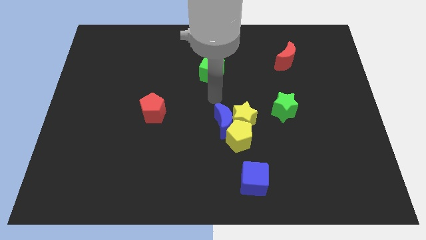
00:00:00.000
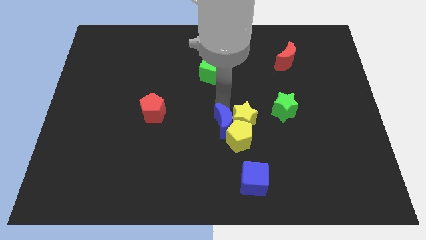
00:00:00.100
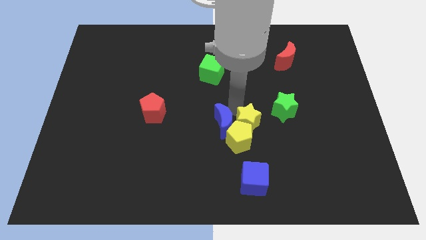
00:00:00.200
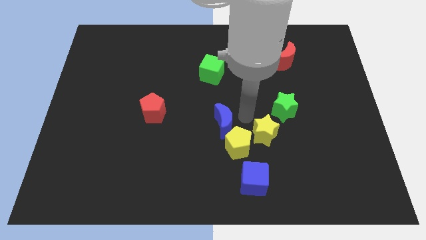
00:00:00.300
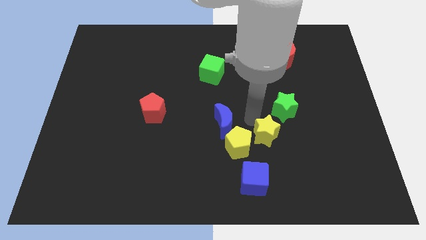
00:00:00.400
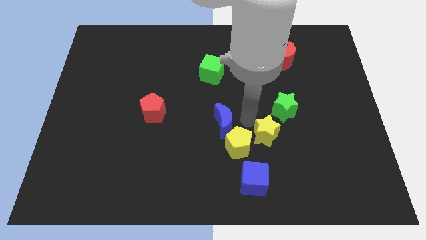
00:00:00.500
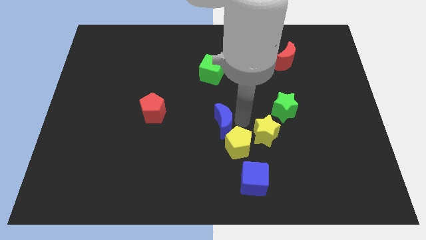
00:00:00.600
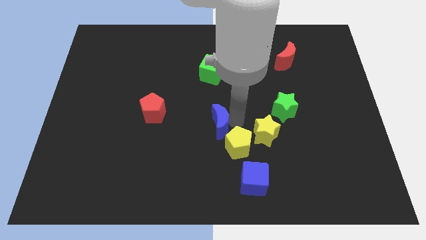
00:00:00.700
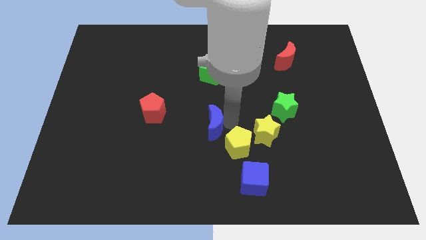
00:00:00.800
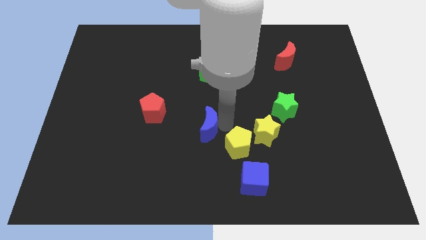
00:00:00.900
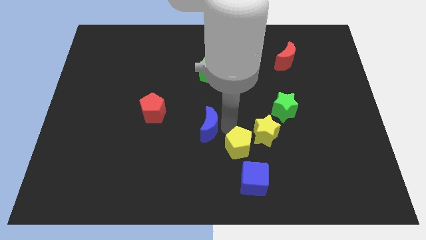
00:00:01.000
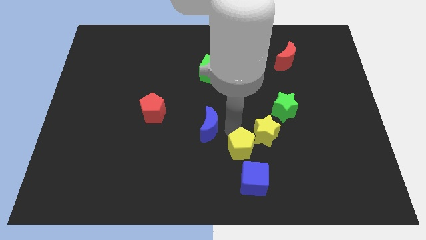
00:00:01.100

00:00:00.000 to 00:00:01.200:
pull the blue moon apart from the yellow star and yellow pentagon

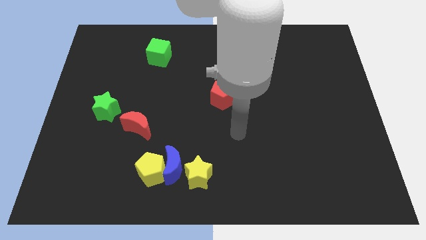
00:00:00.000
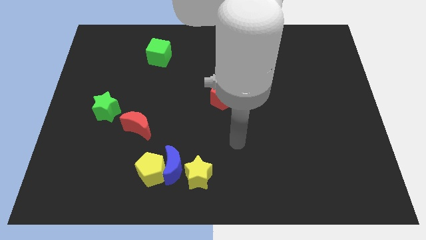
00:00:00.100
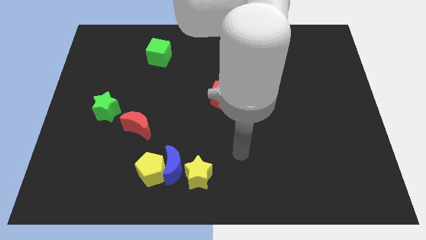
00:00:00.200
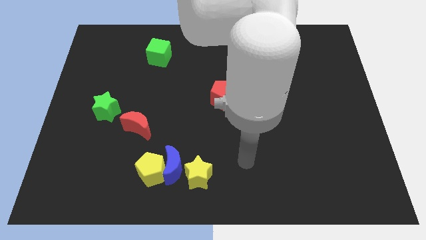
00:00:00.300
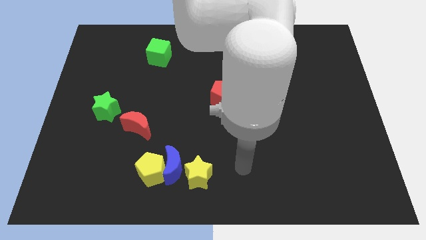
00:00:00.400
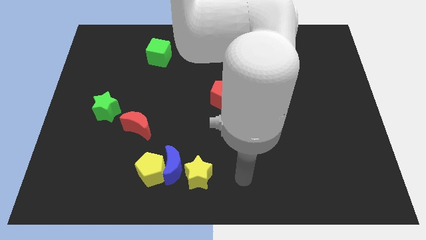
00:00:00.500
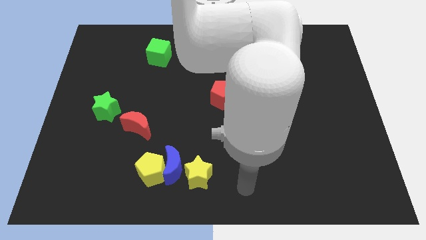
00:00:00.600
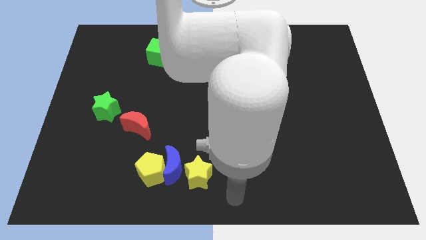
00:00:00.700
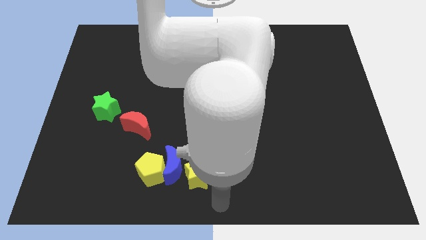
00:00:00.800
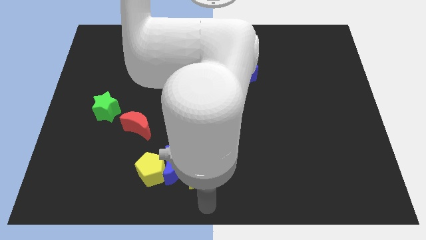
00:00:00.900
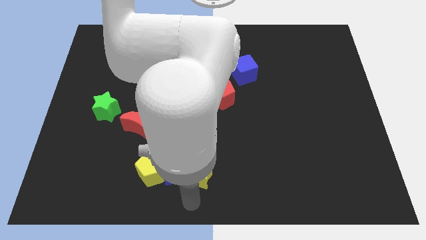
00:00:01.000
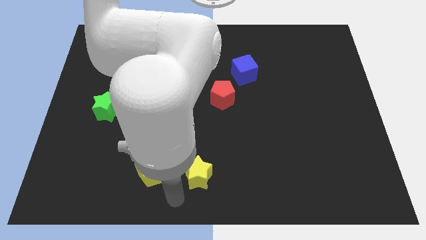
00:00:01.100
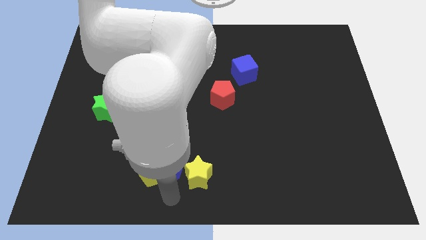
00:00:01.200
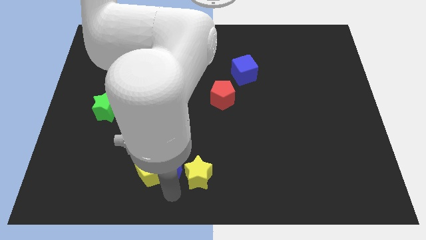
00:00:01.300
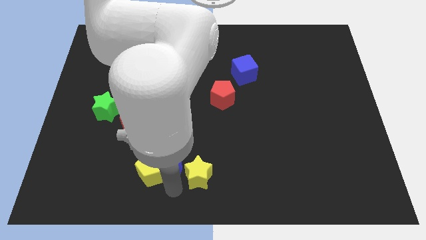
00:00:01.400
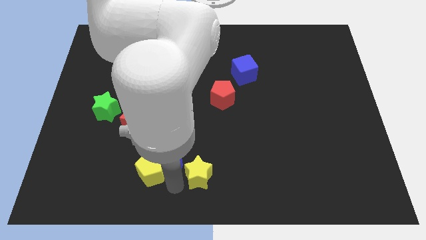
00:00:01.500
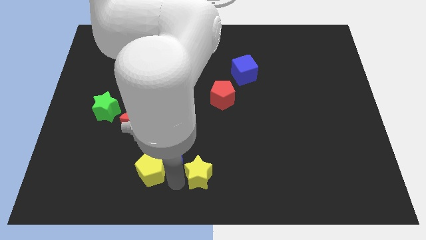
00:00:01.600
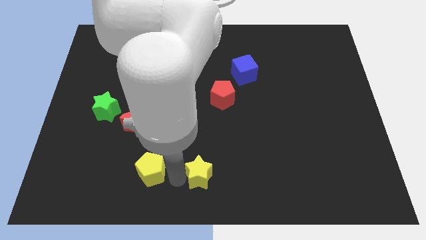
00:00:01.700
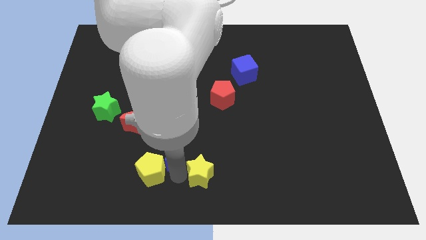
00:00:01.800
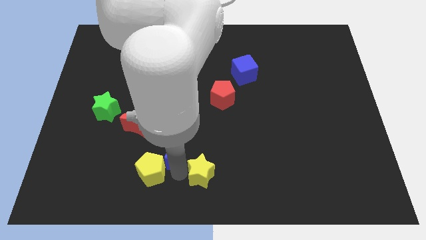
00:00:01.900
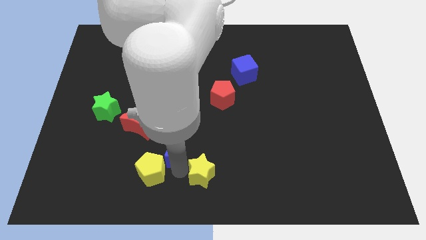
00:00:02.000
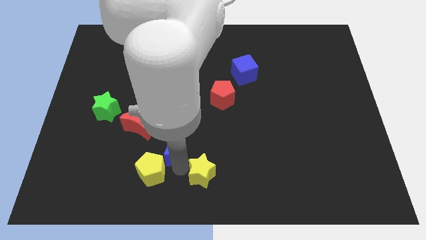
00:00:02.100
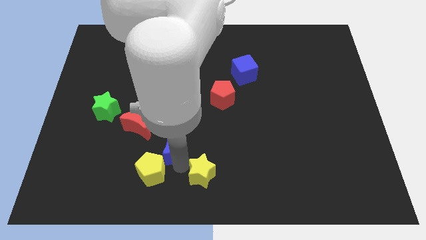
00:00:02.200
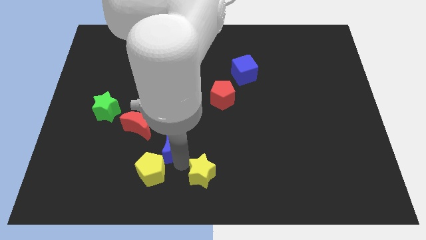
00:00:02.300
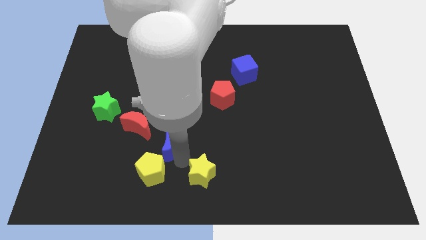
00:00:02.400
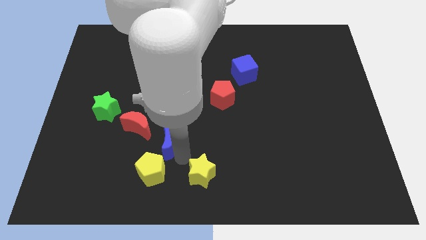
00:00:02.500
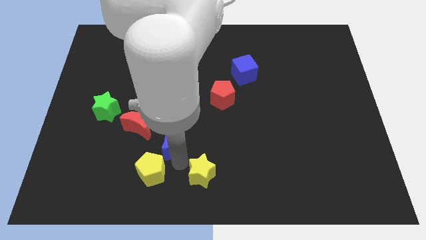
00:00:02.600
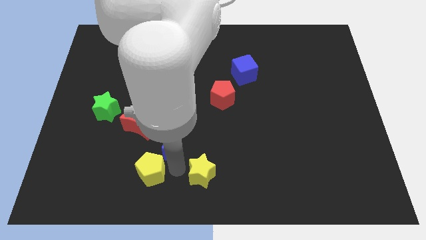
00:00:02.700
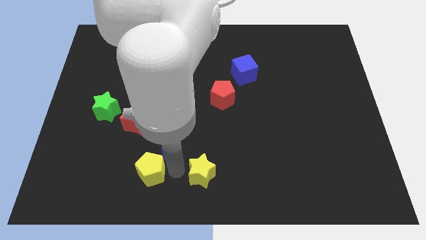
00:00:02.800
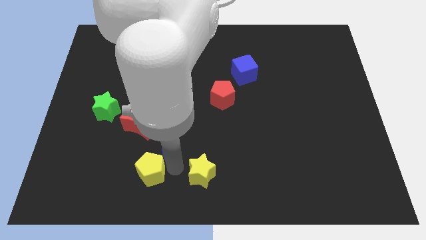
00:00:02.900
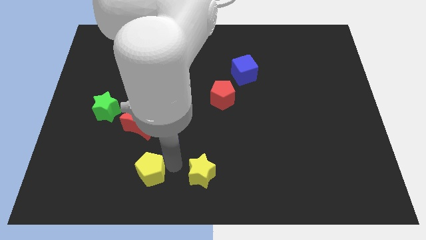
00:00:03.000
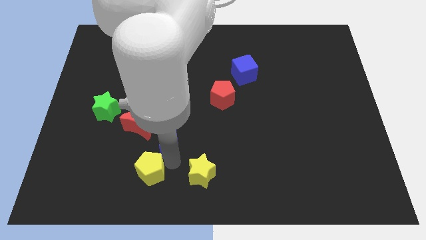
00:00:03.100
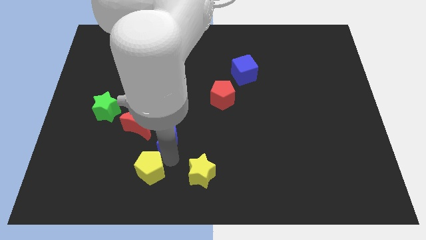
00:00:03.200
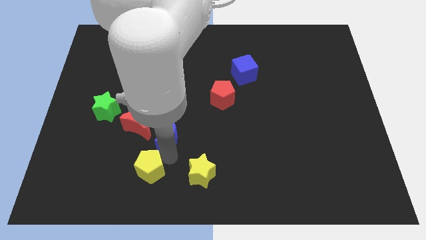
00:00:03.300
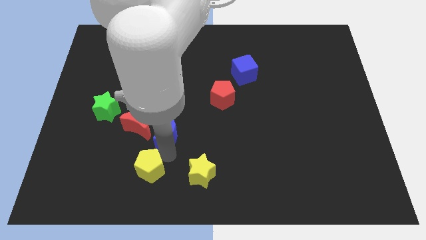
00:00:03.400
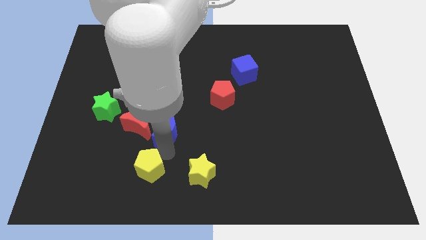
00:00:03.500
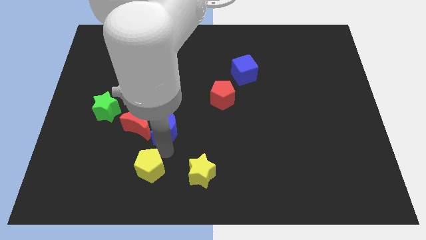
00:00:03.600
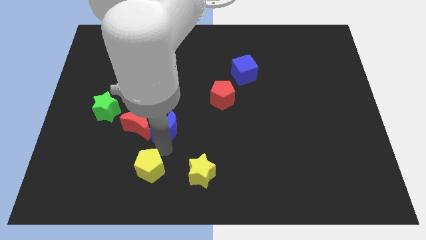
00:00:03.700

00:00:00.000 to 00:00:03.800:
pull the blue moon apart from the yellow pentagon and yellow star

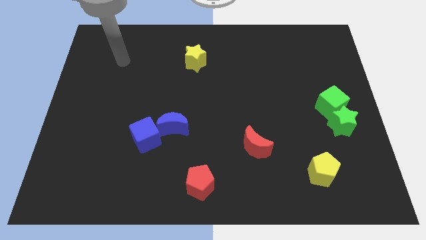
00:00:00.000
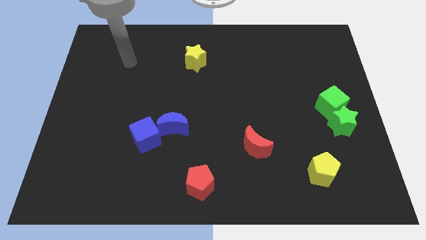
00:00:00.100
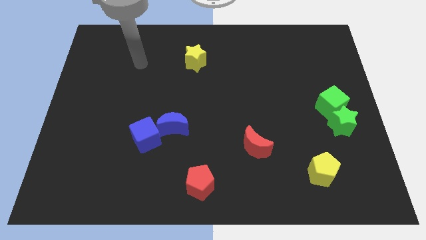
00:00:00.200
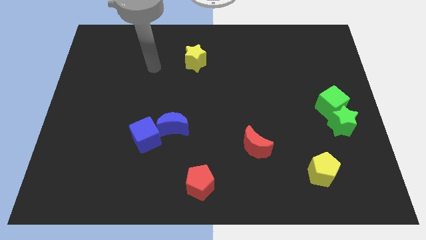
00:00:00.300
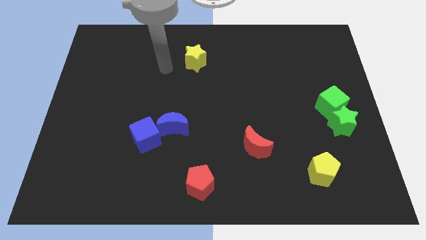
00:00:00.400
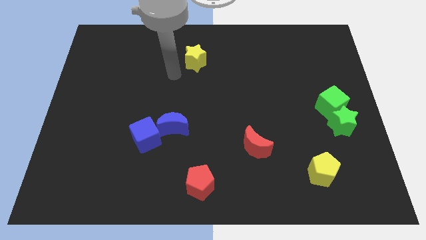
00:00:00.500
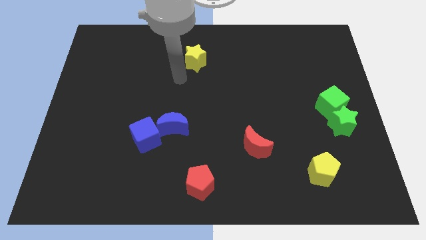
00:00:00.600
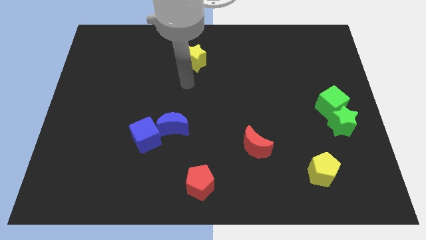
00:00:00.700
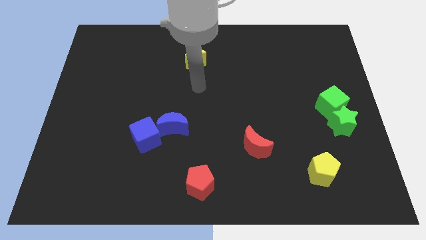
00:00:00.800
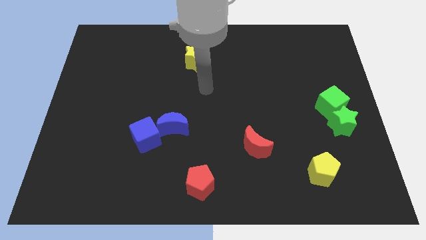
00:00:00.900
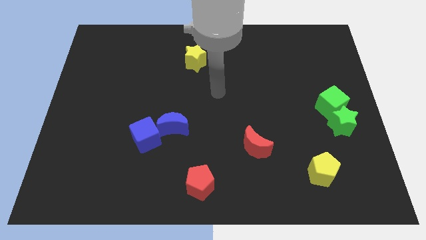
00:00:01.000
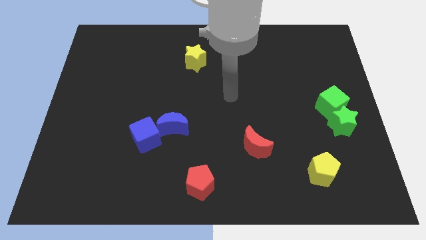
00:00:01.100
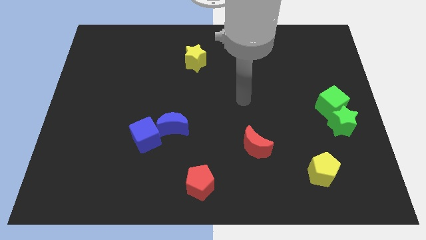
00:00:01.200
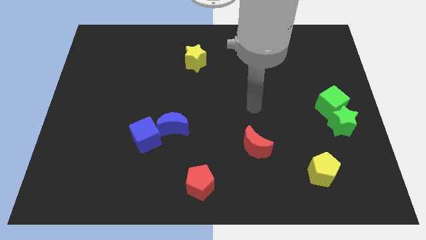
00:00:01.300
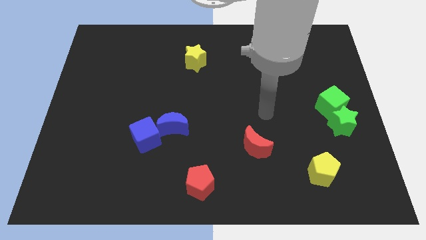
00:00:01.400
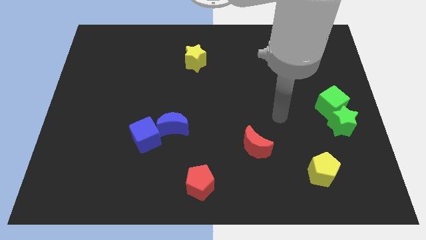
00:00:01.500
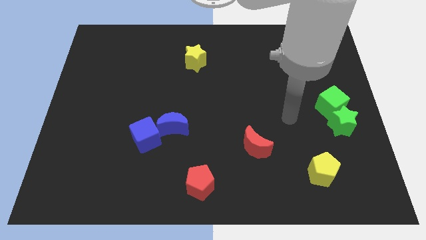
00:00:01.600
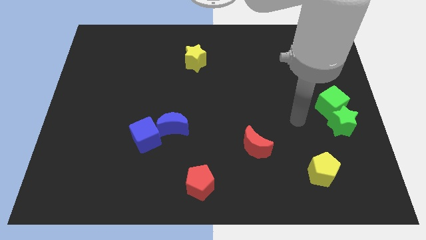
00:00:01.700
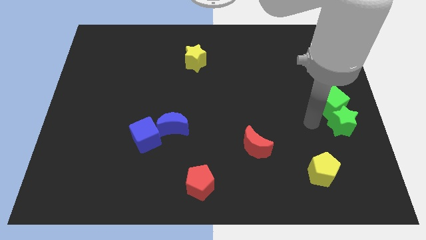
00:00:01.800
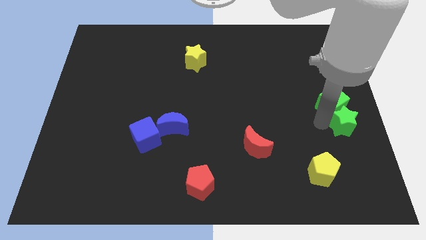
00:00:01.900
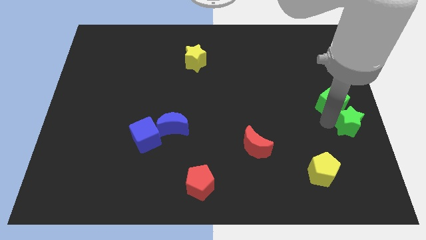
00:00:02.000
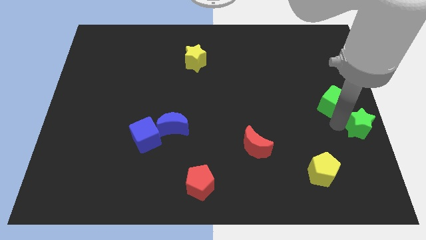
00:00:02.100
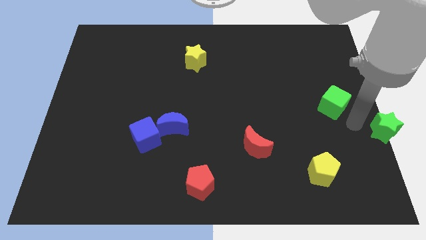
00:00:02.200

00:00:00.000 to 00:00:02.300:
move the green cube away from the green star

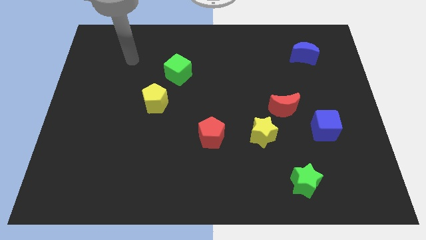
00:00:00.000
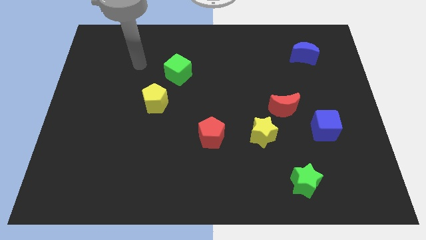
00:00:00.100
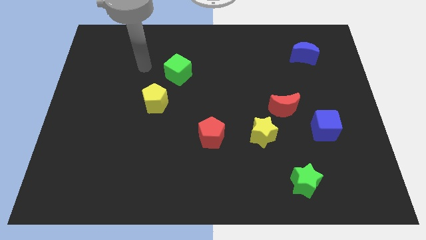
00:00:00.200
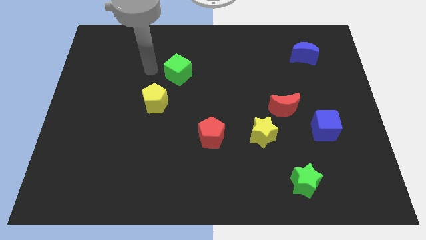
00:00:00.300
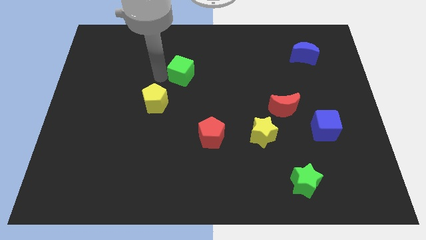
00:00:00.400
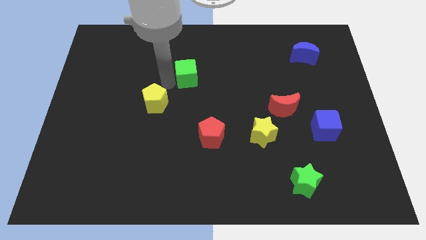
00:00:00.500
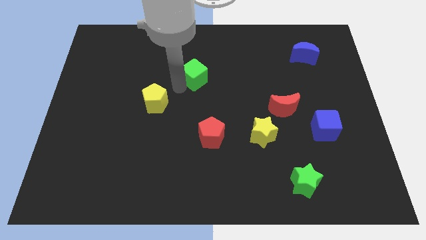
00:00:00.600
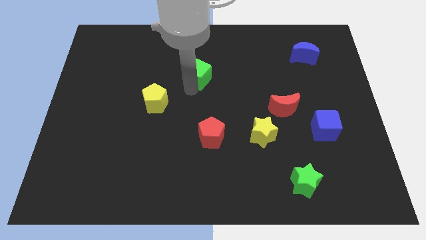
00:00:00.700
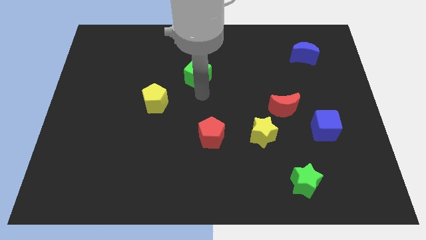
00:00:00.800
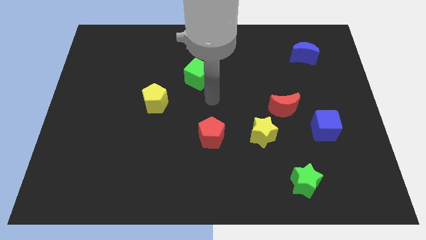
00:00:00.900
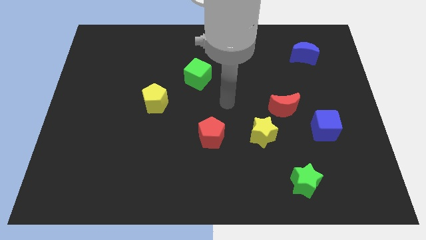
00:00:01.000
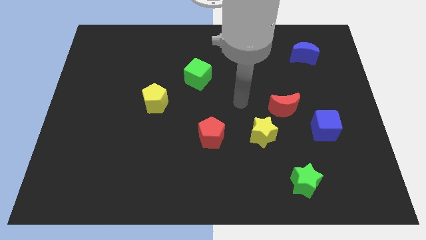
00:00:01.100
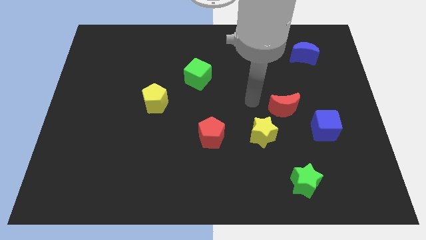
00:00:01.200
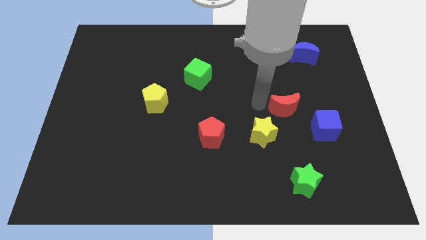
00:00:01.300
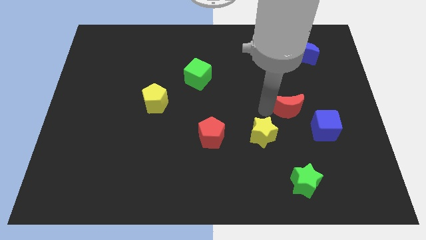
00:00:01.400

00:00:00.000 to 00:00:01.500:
move the yellow star away from the red moon

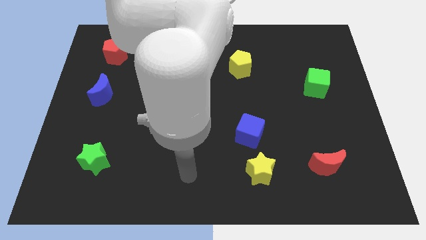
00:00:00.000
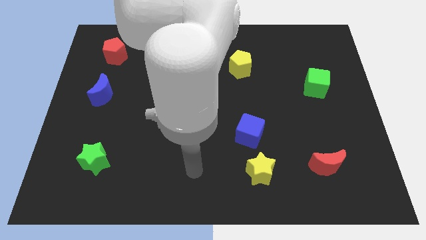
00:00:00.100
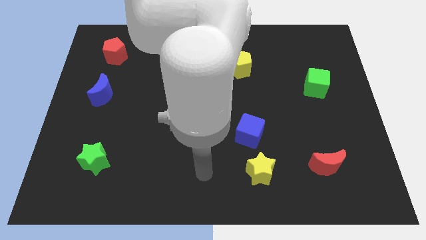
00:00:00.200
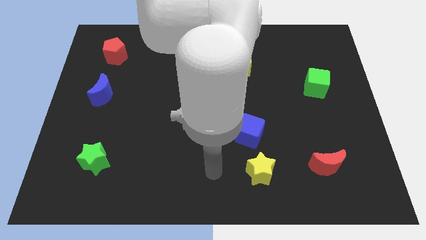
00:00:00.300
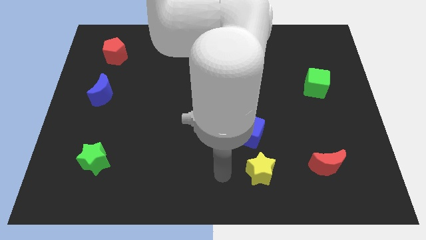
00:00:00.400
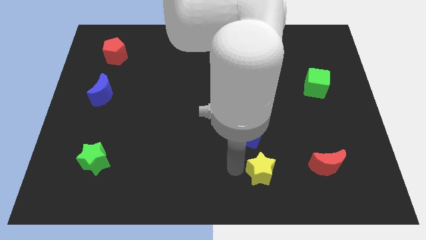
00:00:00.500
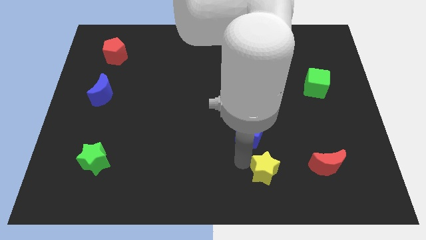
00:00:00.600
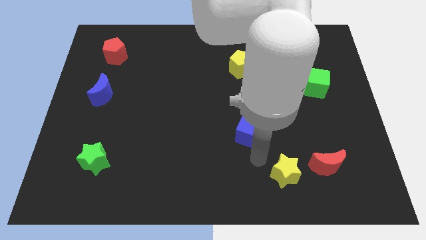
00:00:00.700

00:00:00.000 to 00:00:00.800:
move the blue cube away from the yellow star
